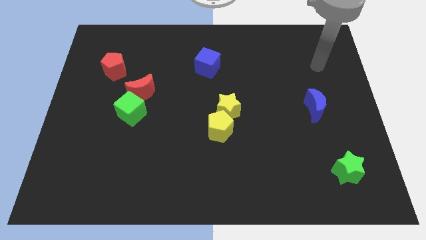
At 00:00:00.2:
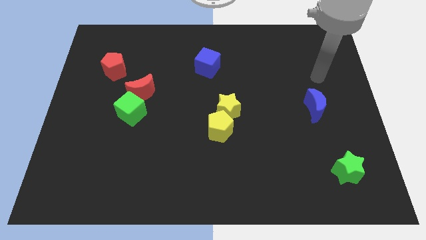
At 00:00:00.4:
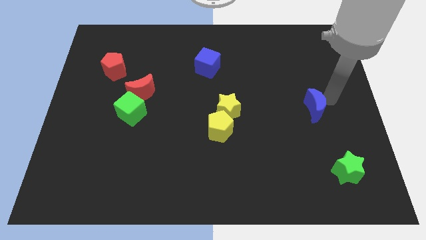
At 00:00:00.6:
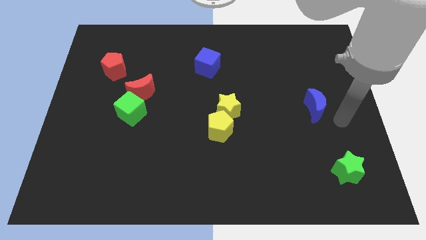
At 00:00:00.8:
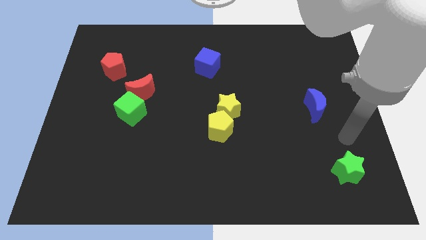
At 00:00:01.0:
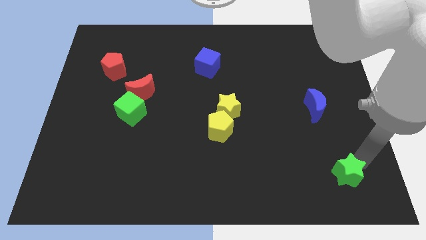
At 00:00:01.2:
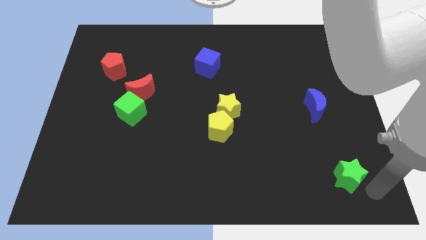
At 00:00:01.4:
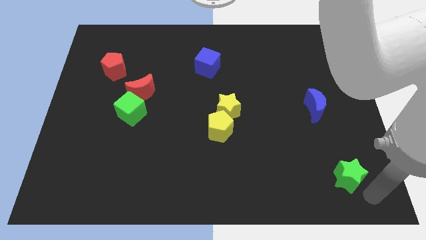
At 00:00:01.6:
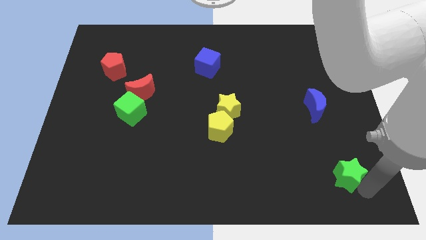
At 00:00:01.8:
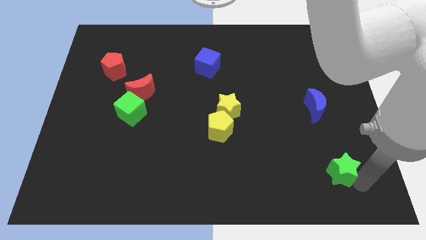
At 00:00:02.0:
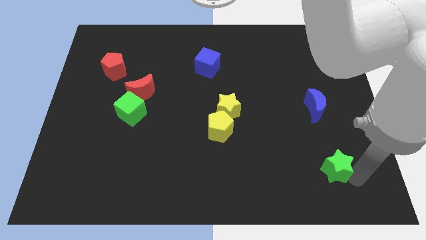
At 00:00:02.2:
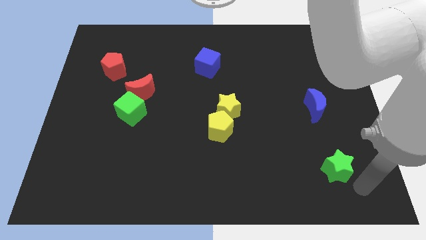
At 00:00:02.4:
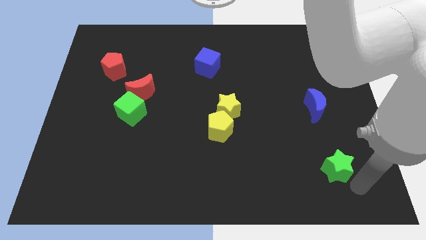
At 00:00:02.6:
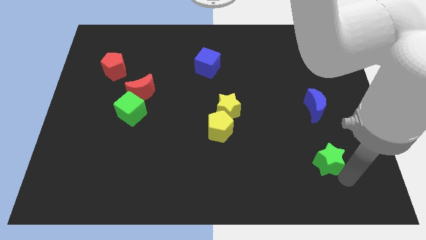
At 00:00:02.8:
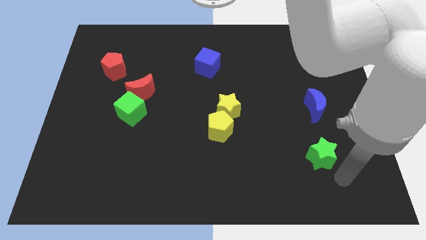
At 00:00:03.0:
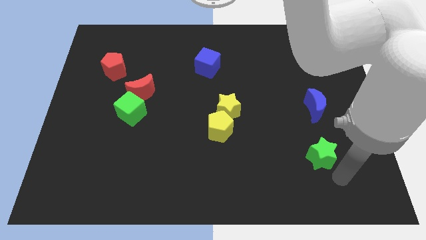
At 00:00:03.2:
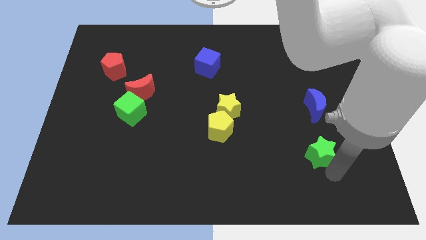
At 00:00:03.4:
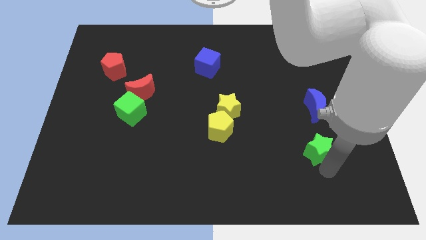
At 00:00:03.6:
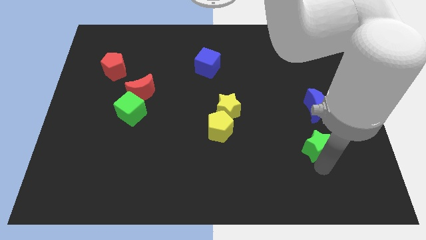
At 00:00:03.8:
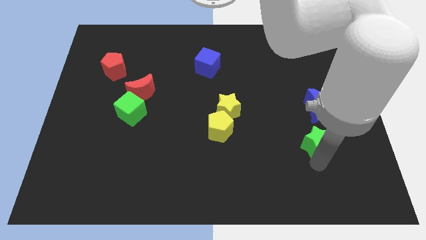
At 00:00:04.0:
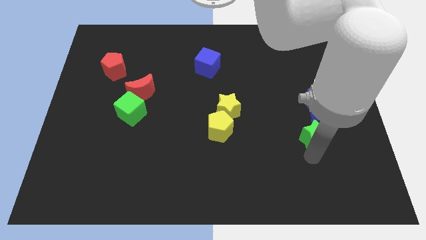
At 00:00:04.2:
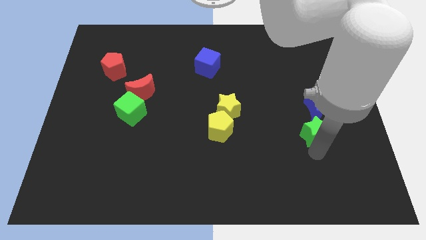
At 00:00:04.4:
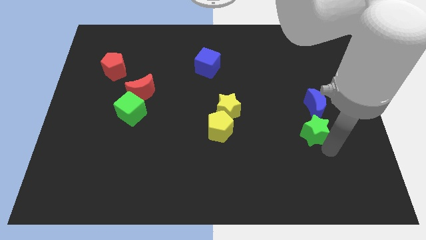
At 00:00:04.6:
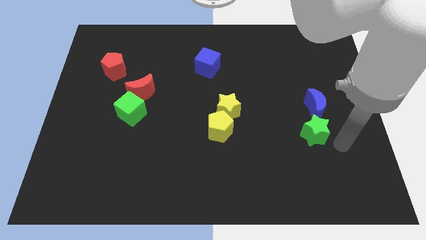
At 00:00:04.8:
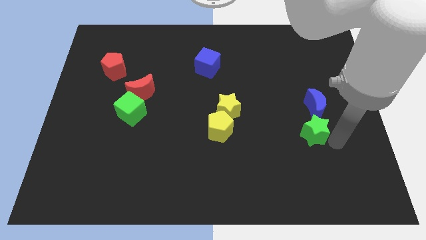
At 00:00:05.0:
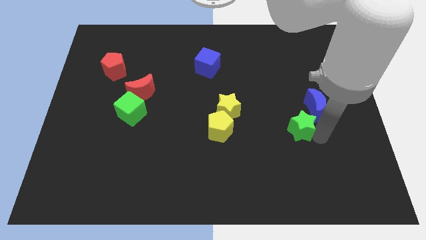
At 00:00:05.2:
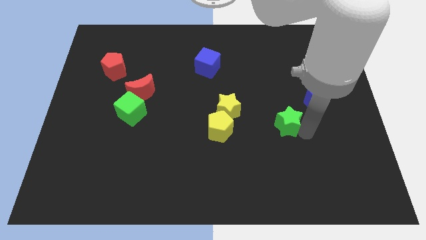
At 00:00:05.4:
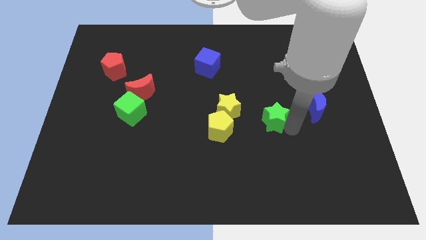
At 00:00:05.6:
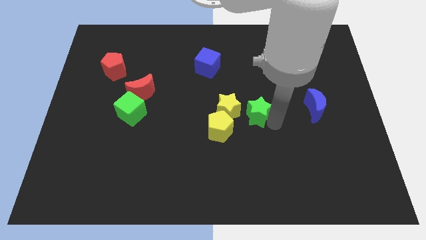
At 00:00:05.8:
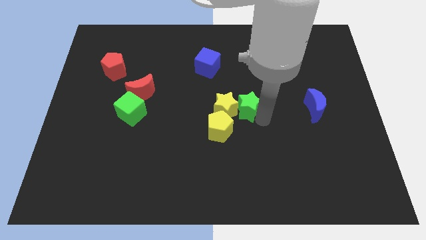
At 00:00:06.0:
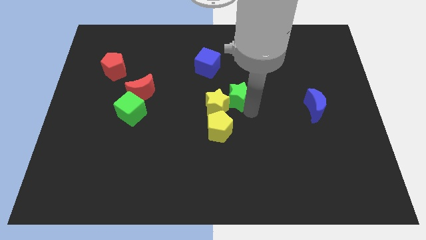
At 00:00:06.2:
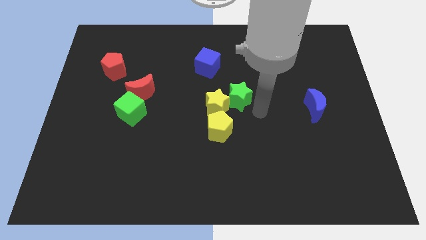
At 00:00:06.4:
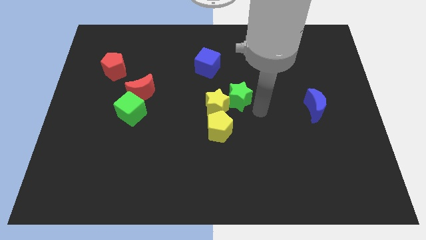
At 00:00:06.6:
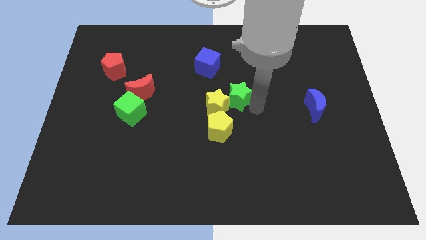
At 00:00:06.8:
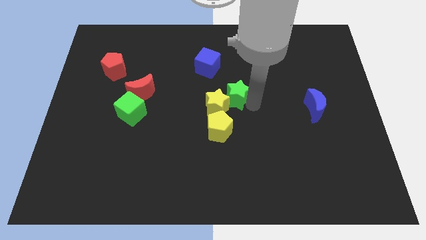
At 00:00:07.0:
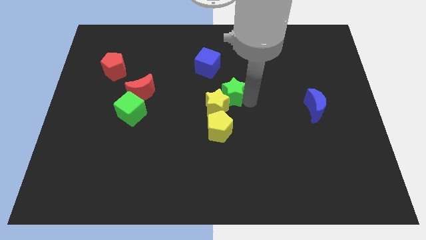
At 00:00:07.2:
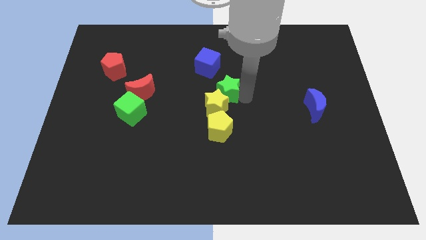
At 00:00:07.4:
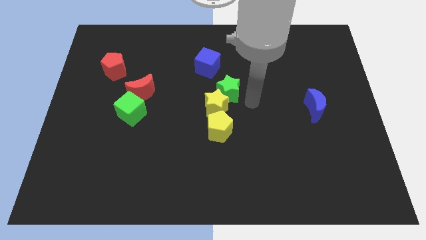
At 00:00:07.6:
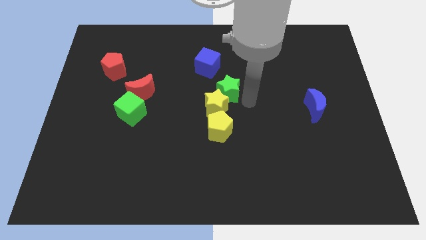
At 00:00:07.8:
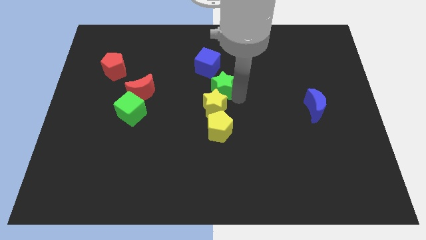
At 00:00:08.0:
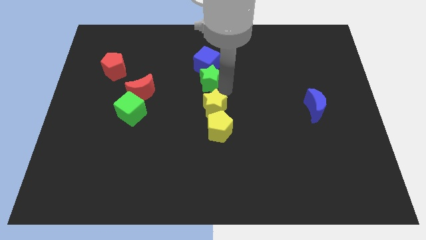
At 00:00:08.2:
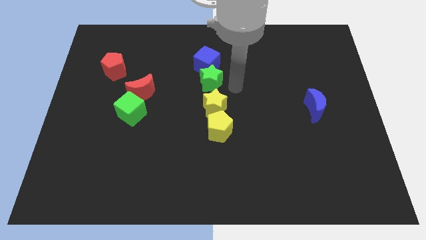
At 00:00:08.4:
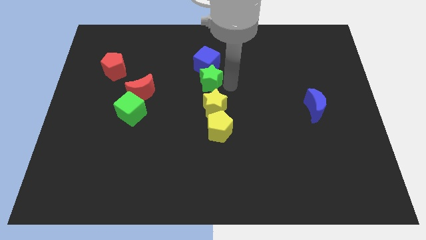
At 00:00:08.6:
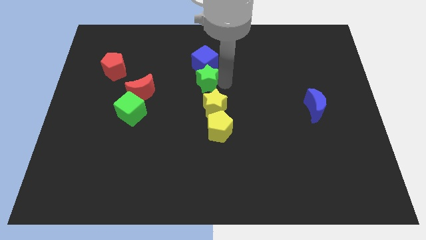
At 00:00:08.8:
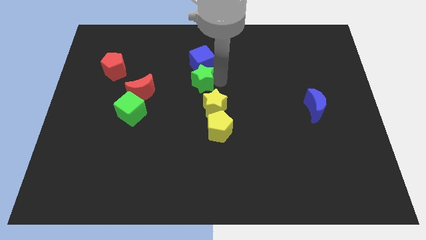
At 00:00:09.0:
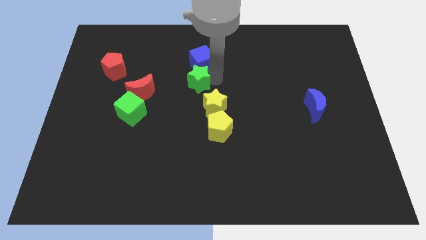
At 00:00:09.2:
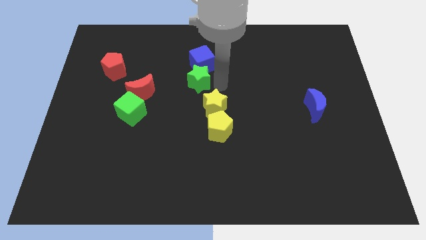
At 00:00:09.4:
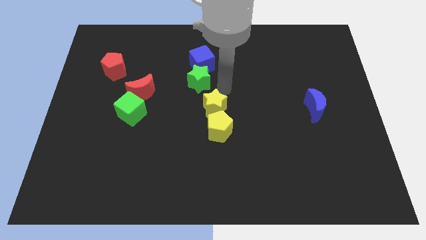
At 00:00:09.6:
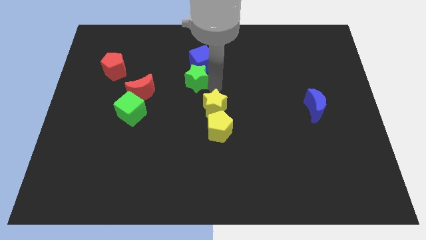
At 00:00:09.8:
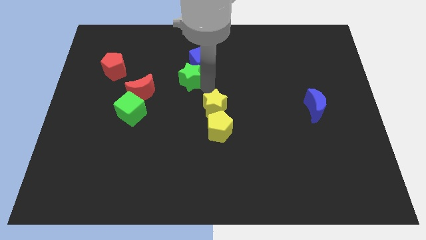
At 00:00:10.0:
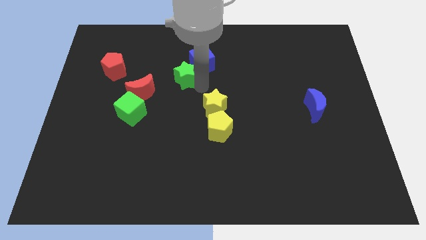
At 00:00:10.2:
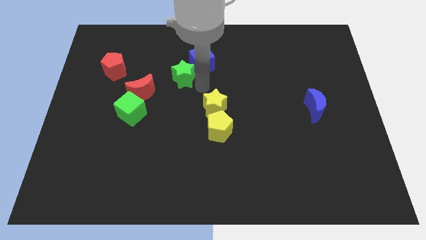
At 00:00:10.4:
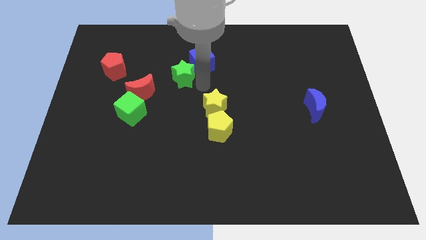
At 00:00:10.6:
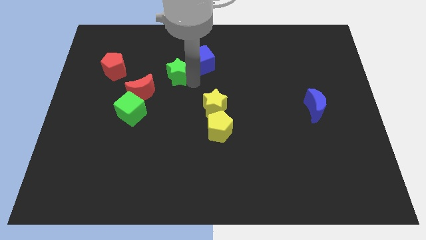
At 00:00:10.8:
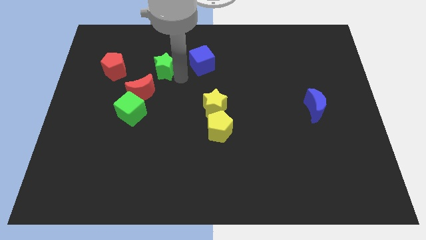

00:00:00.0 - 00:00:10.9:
move the green star to the top side of the red moon

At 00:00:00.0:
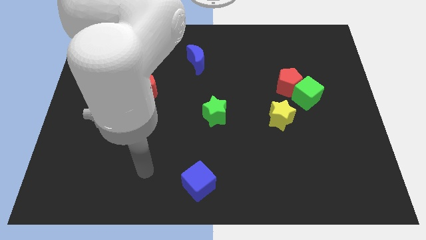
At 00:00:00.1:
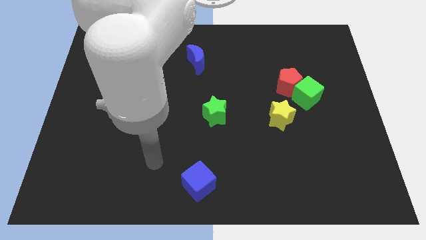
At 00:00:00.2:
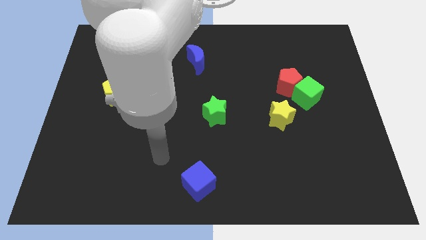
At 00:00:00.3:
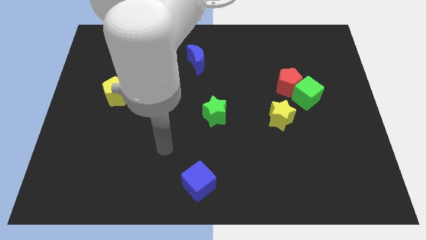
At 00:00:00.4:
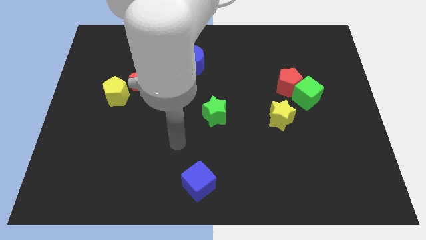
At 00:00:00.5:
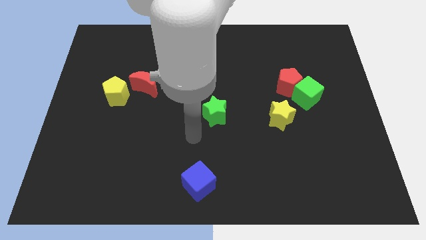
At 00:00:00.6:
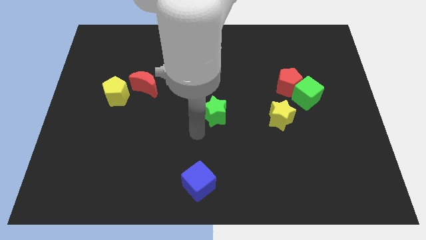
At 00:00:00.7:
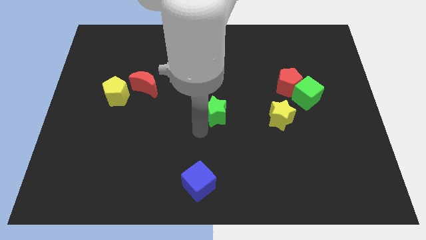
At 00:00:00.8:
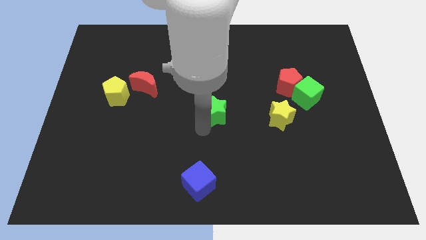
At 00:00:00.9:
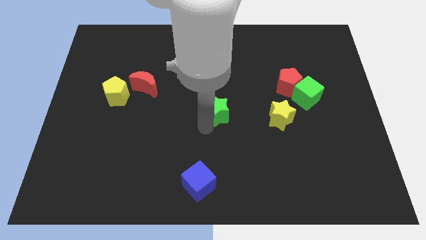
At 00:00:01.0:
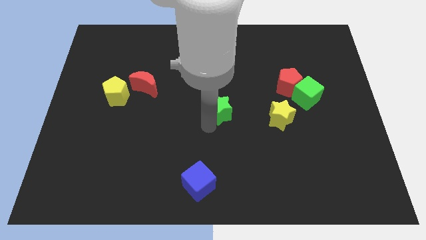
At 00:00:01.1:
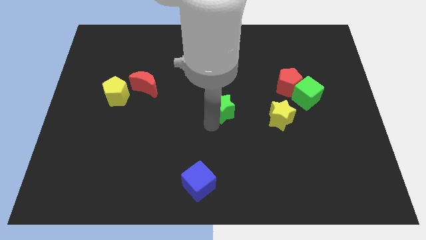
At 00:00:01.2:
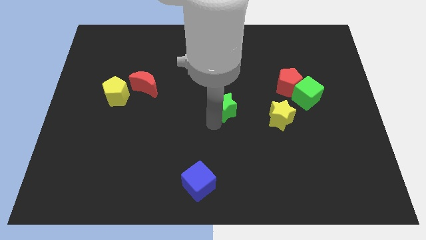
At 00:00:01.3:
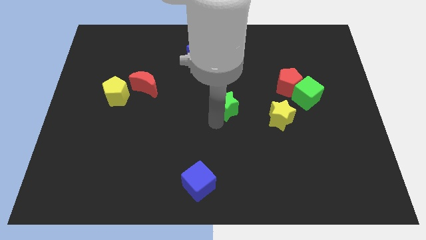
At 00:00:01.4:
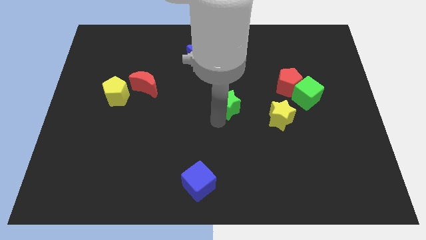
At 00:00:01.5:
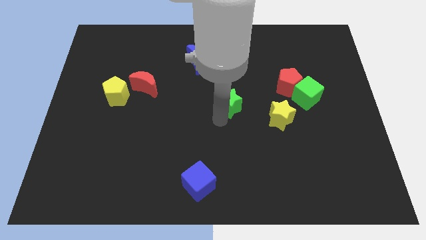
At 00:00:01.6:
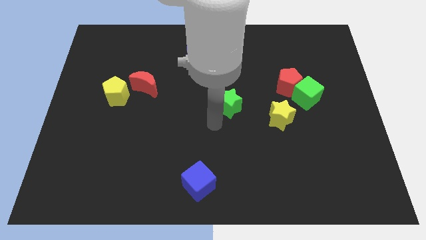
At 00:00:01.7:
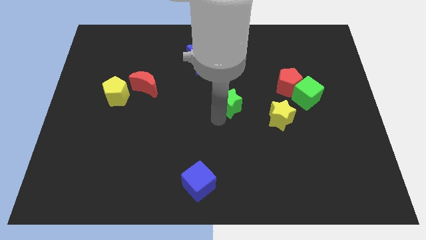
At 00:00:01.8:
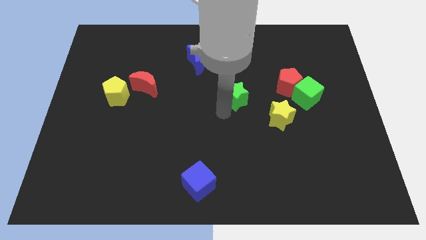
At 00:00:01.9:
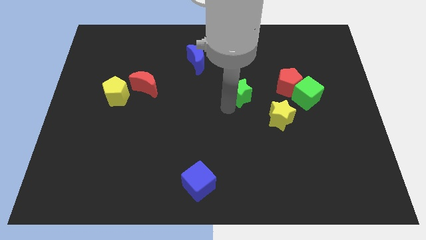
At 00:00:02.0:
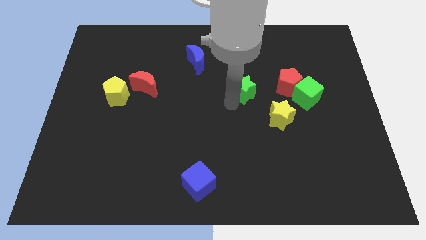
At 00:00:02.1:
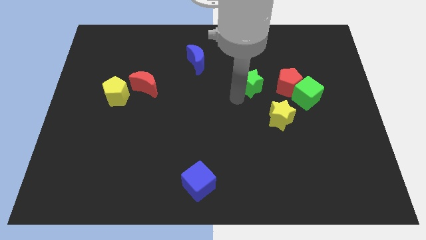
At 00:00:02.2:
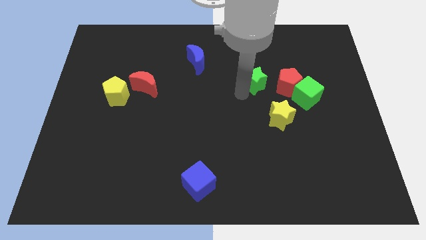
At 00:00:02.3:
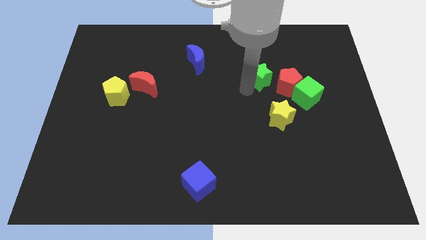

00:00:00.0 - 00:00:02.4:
push the green star to the top left side of the red pentagon
